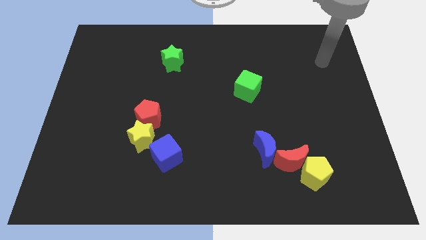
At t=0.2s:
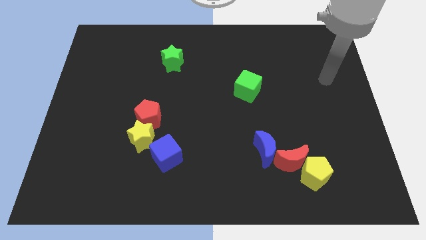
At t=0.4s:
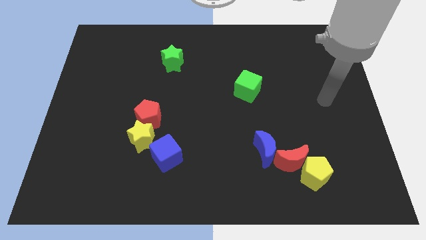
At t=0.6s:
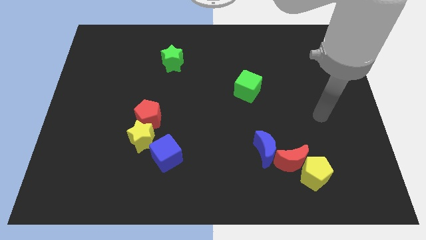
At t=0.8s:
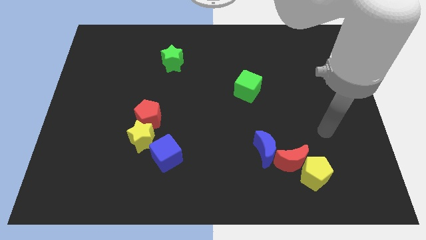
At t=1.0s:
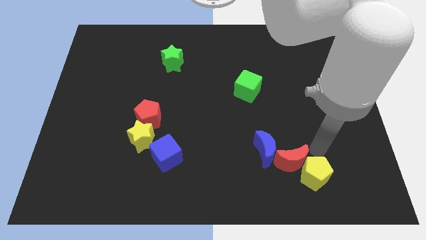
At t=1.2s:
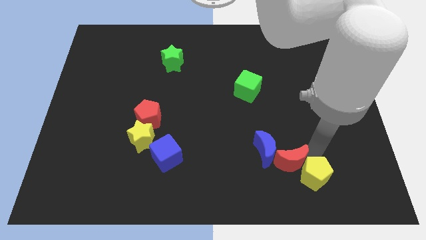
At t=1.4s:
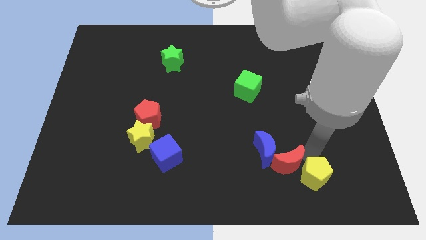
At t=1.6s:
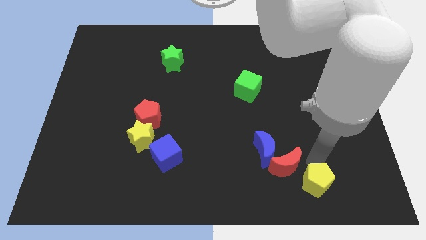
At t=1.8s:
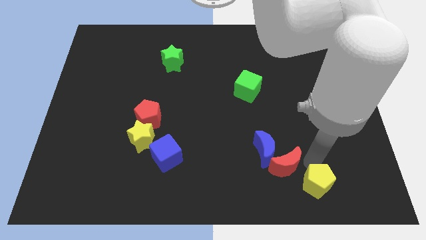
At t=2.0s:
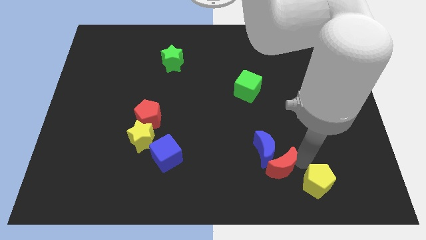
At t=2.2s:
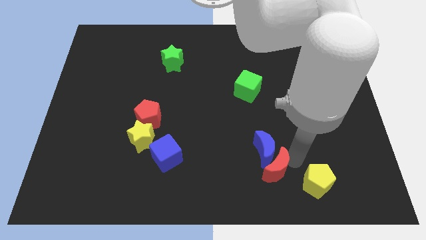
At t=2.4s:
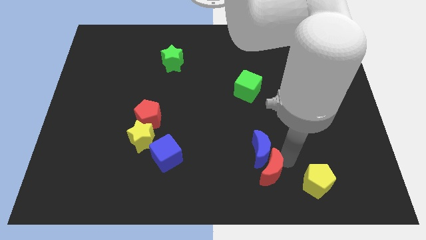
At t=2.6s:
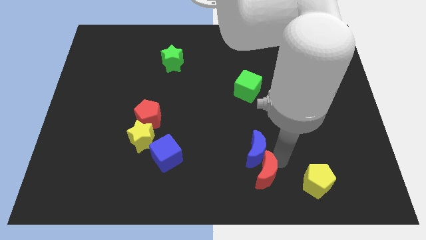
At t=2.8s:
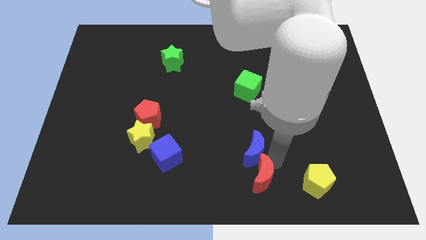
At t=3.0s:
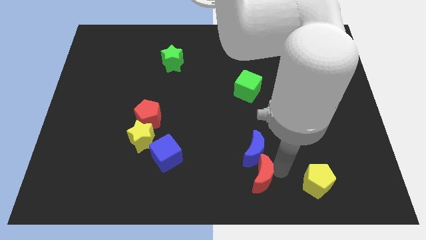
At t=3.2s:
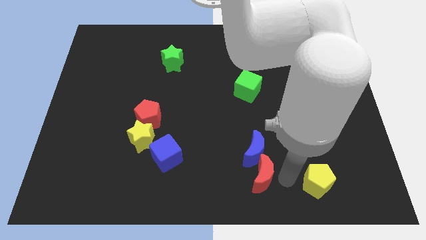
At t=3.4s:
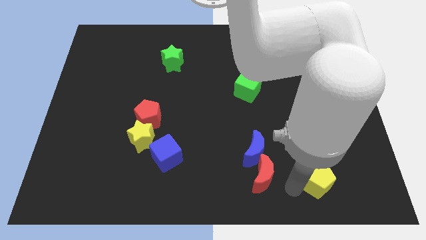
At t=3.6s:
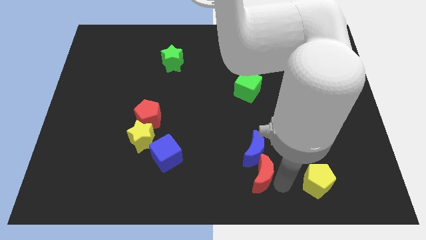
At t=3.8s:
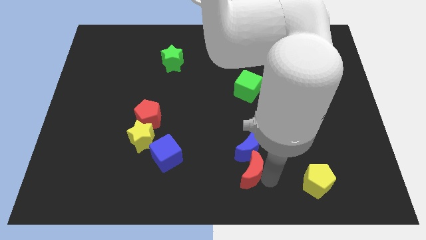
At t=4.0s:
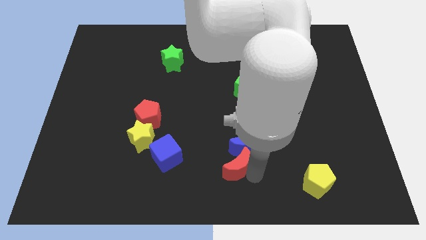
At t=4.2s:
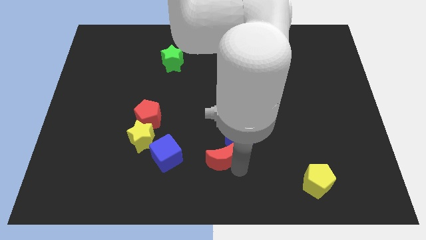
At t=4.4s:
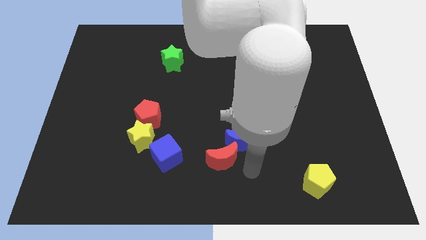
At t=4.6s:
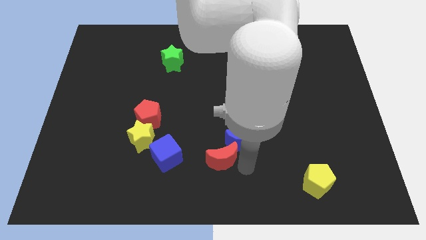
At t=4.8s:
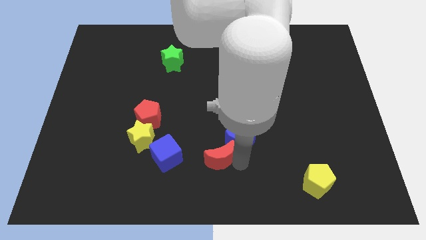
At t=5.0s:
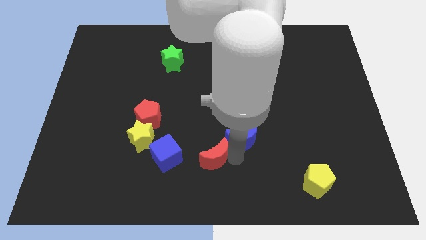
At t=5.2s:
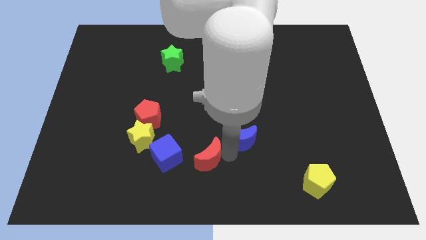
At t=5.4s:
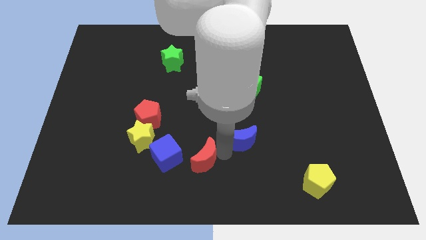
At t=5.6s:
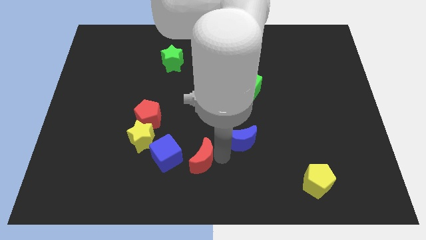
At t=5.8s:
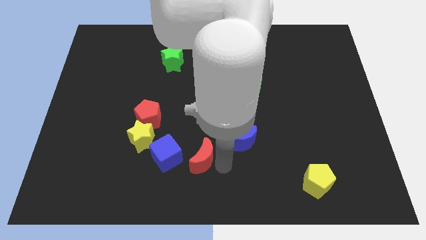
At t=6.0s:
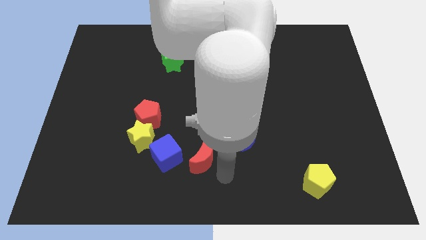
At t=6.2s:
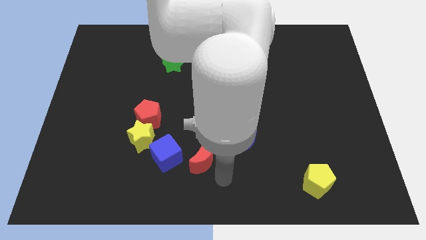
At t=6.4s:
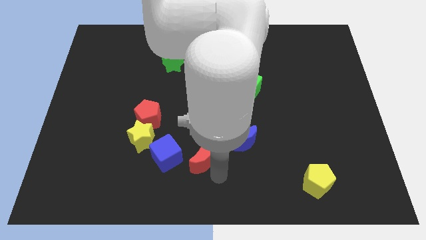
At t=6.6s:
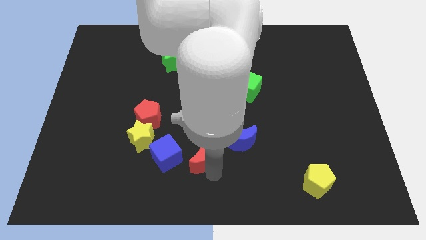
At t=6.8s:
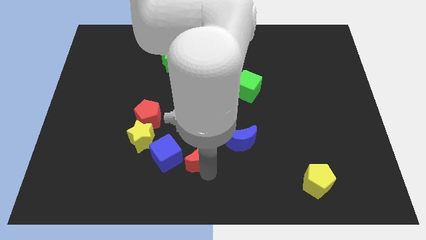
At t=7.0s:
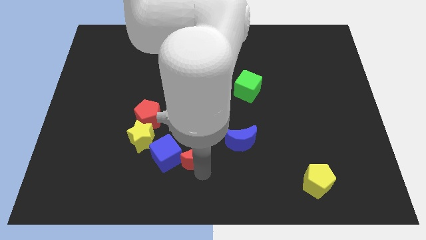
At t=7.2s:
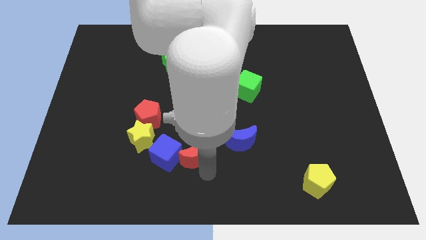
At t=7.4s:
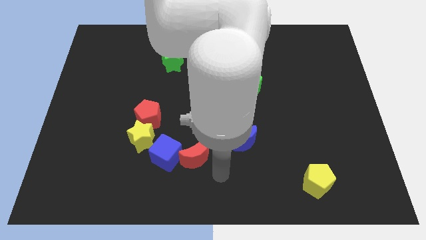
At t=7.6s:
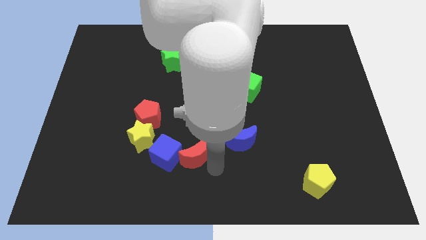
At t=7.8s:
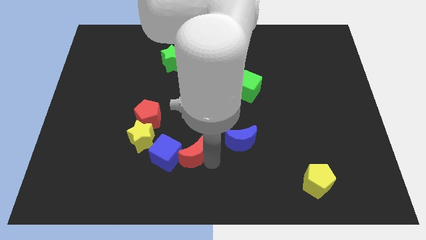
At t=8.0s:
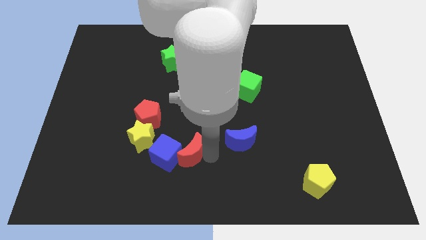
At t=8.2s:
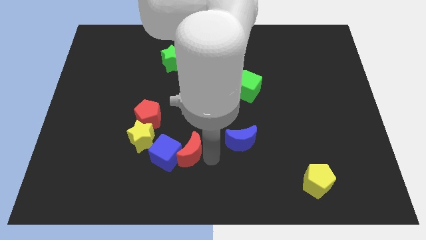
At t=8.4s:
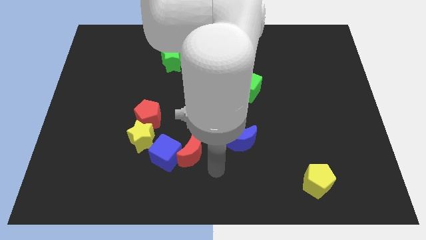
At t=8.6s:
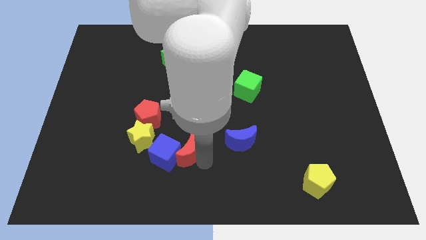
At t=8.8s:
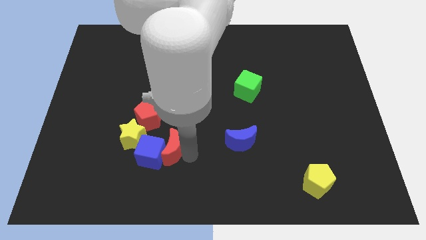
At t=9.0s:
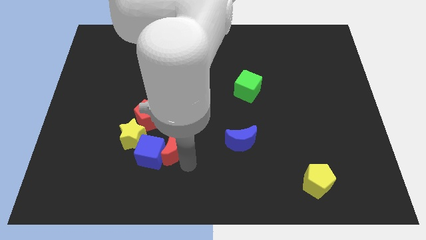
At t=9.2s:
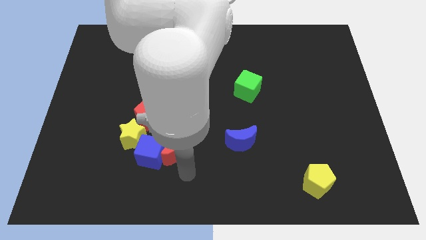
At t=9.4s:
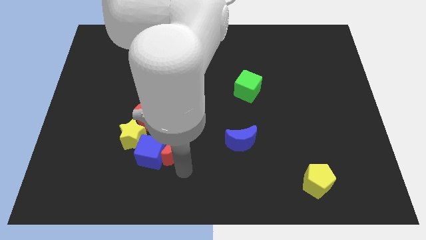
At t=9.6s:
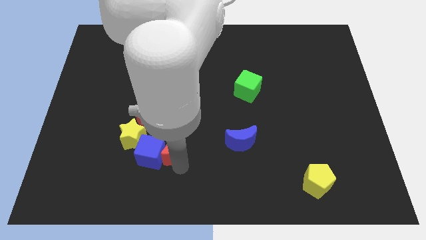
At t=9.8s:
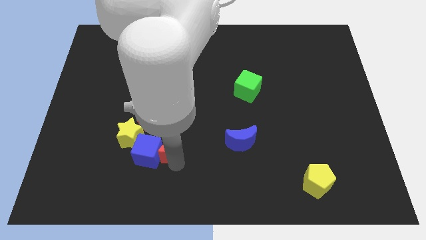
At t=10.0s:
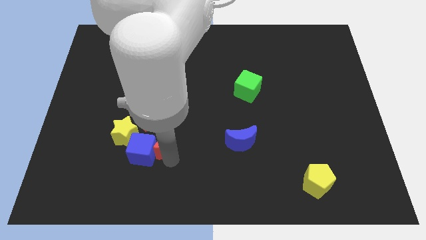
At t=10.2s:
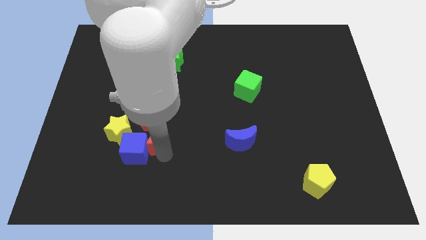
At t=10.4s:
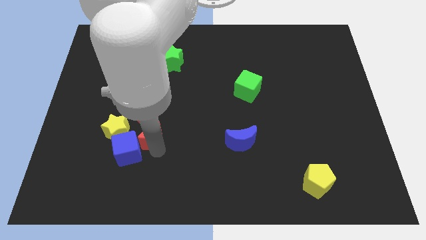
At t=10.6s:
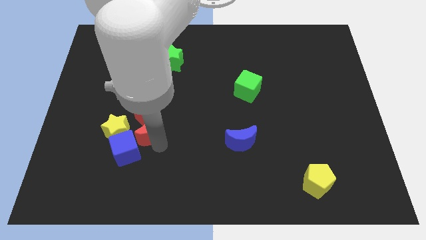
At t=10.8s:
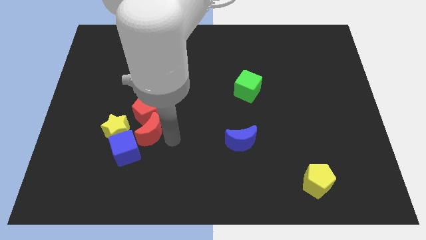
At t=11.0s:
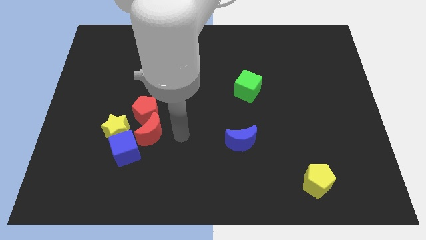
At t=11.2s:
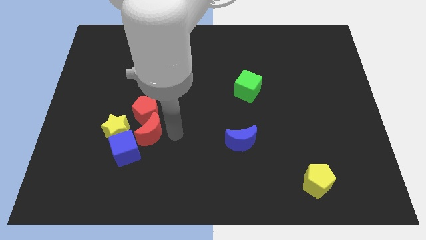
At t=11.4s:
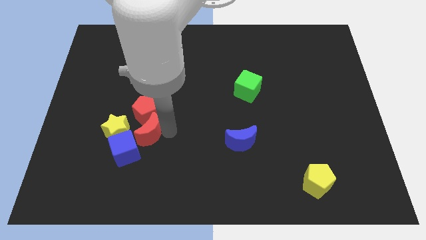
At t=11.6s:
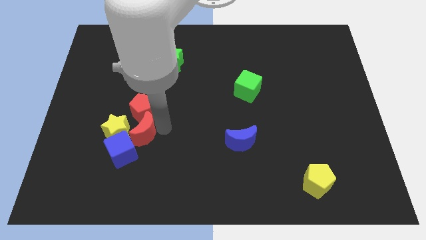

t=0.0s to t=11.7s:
push the red moon to the yellow star

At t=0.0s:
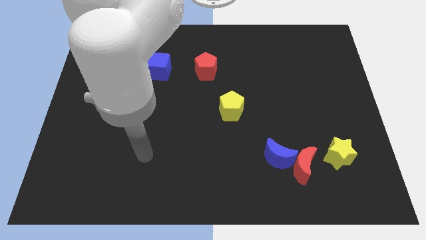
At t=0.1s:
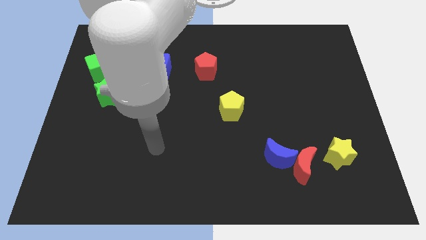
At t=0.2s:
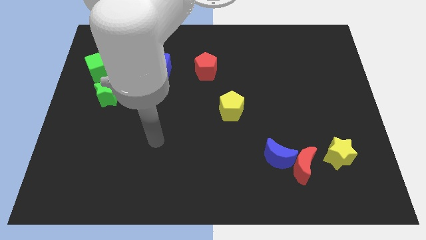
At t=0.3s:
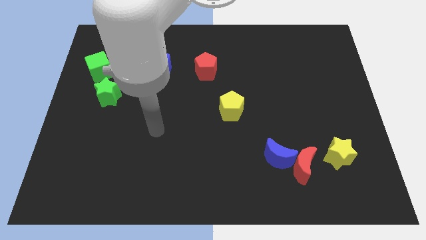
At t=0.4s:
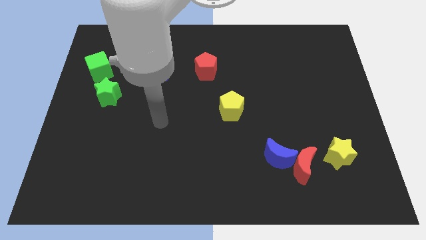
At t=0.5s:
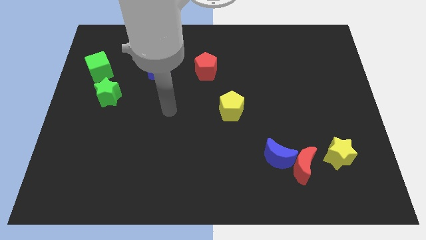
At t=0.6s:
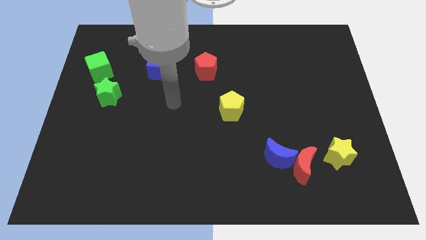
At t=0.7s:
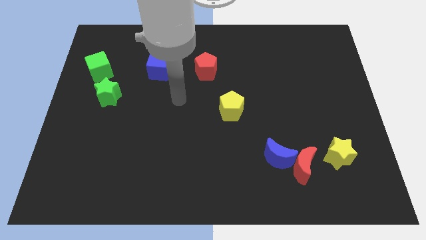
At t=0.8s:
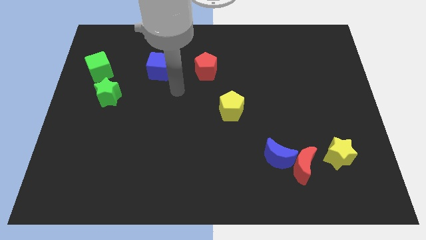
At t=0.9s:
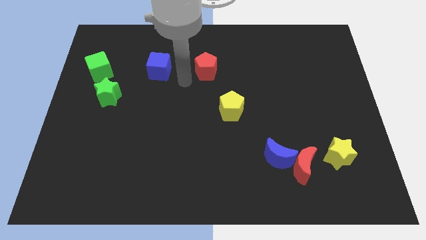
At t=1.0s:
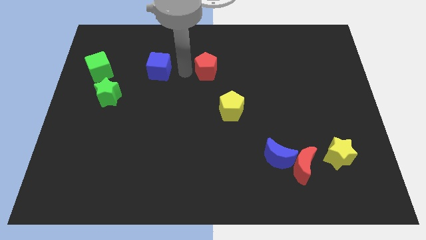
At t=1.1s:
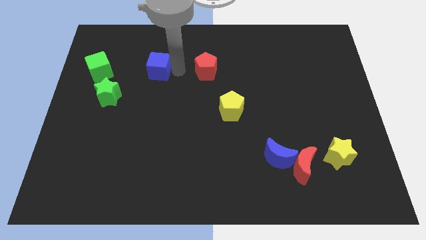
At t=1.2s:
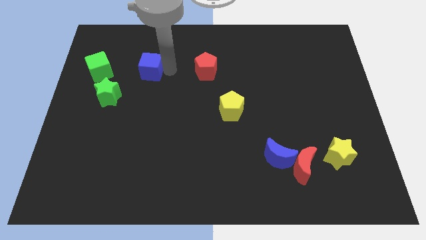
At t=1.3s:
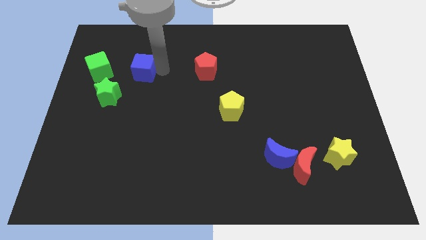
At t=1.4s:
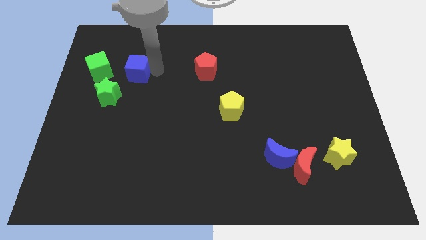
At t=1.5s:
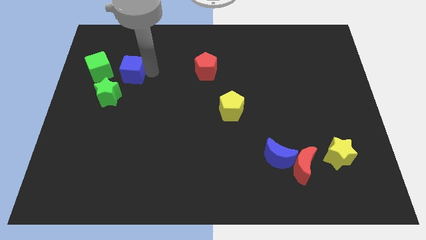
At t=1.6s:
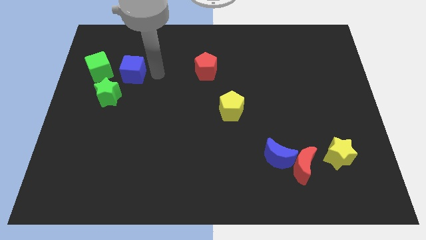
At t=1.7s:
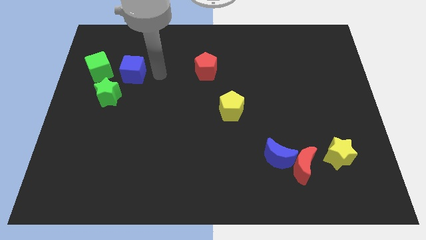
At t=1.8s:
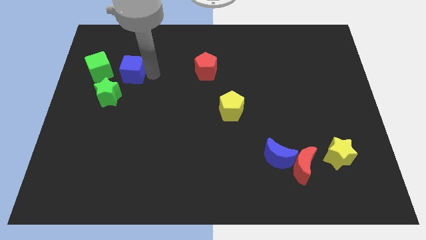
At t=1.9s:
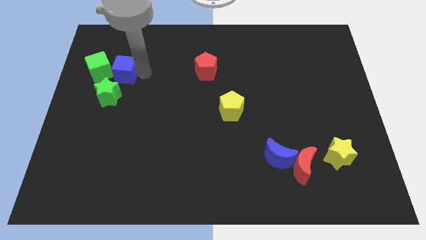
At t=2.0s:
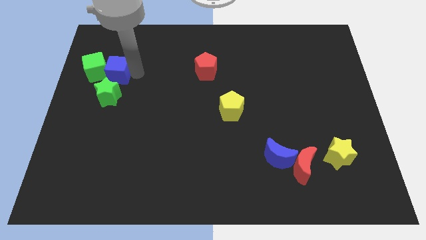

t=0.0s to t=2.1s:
push the blue cube towards the green cube
